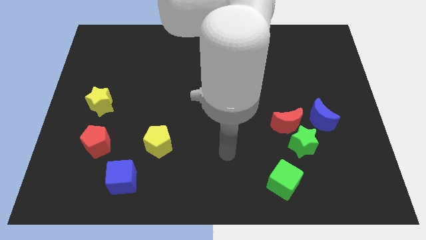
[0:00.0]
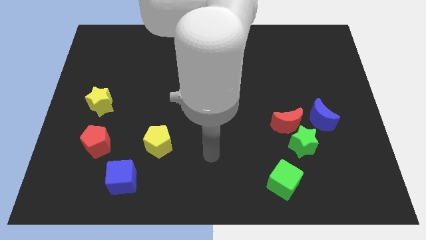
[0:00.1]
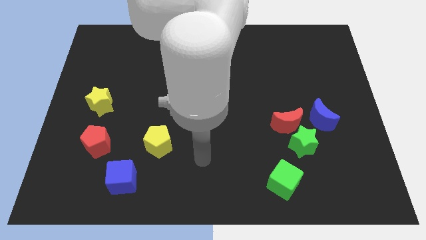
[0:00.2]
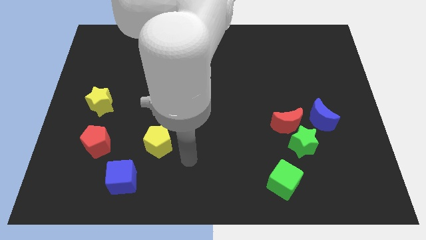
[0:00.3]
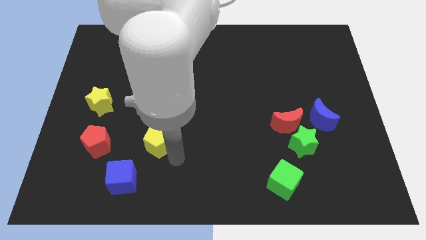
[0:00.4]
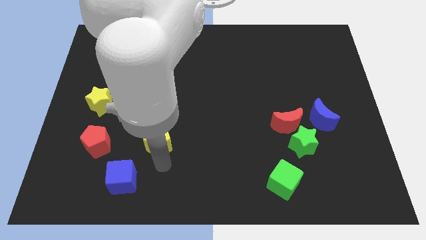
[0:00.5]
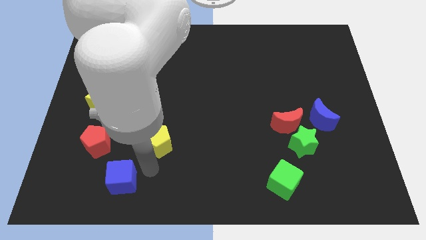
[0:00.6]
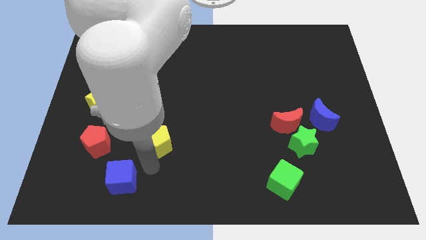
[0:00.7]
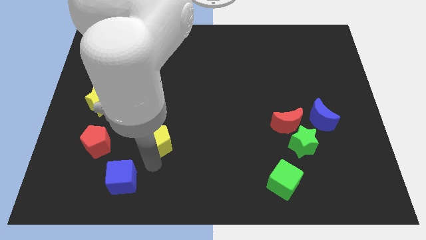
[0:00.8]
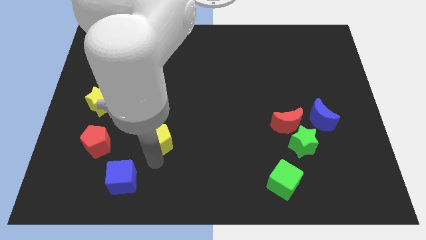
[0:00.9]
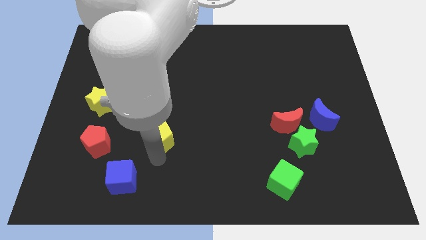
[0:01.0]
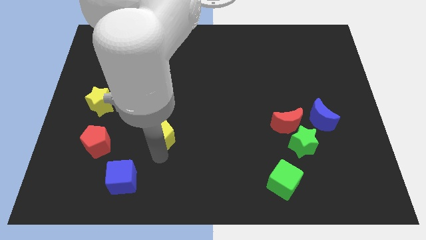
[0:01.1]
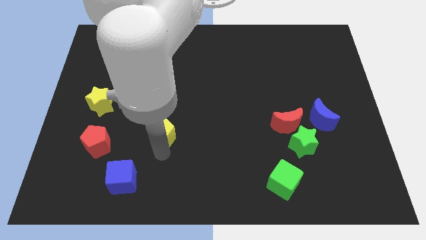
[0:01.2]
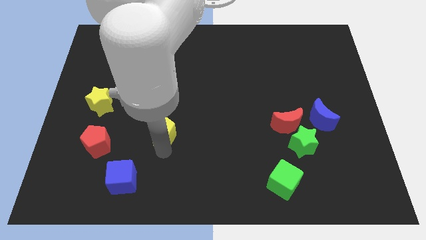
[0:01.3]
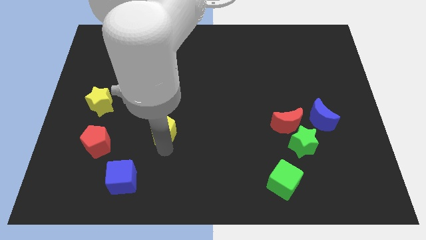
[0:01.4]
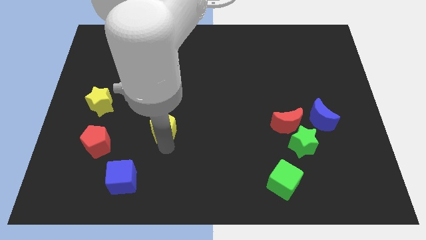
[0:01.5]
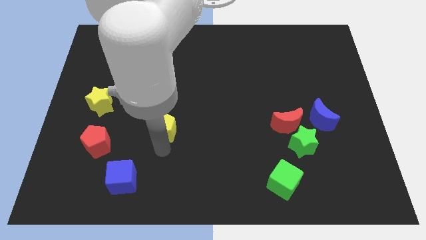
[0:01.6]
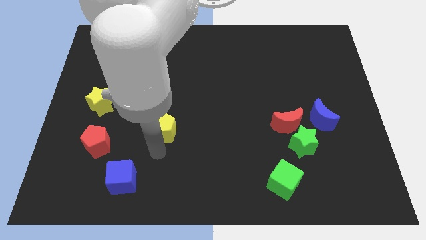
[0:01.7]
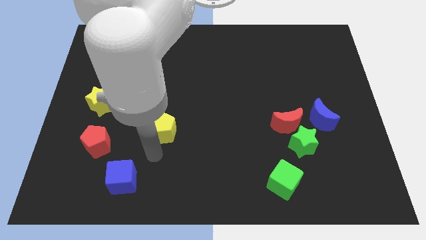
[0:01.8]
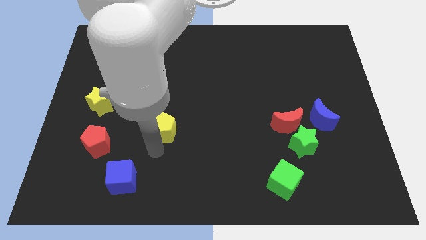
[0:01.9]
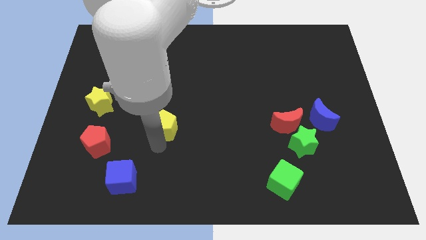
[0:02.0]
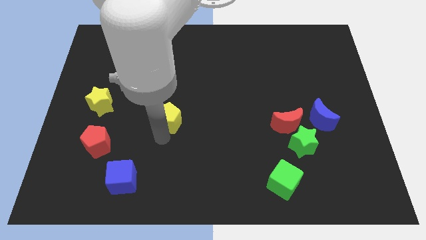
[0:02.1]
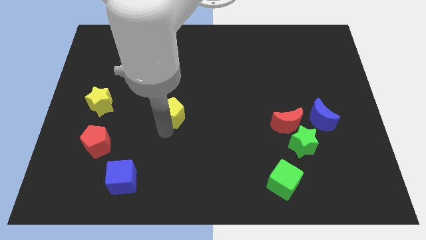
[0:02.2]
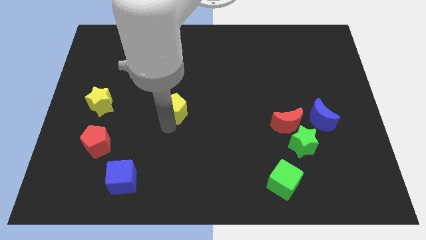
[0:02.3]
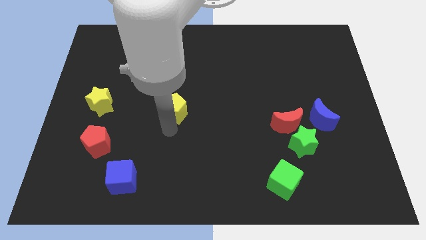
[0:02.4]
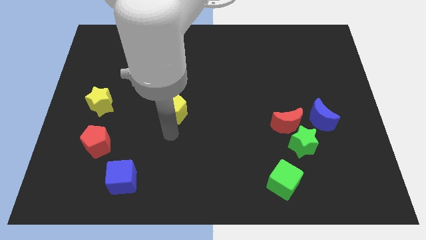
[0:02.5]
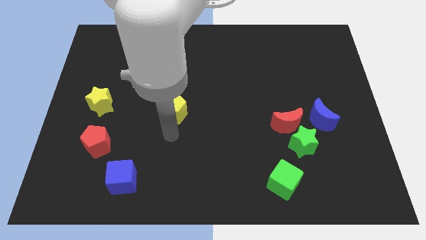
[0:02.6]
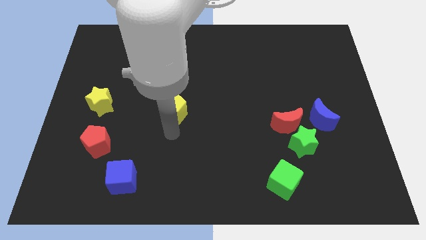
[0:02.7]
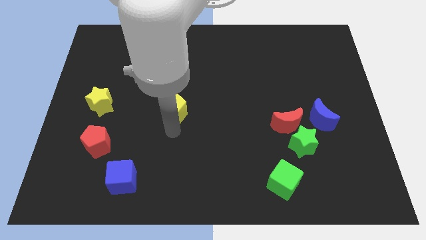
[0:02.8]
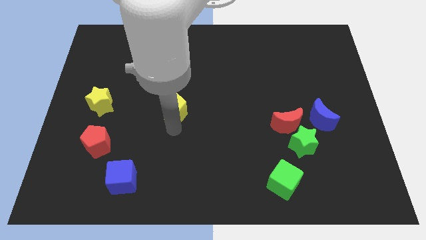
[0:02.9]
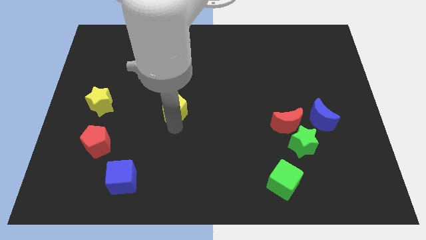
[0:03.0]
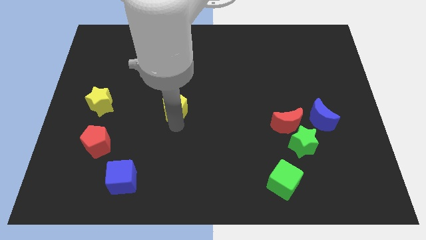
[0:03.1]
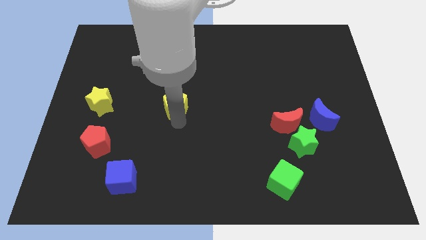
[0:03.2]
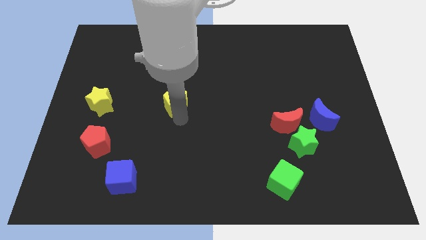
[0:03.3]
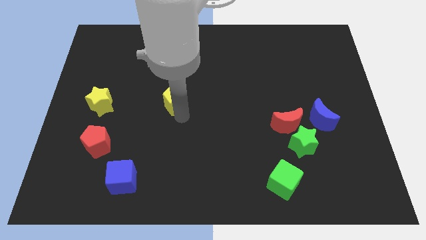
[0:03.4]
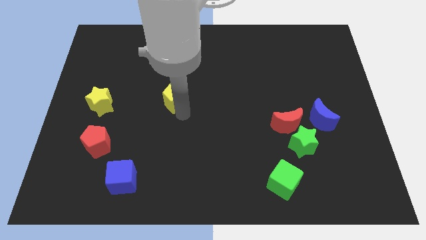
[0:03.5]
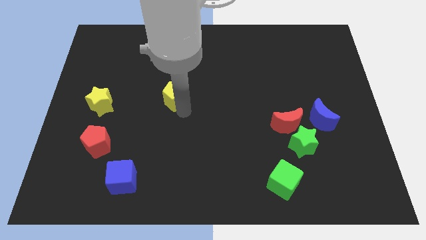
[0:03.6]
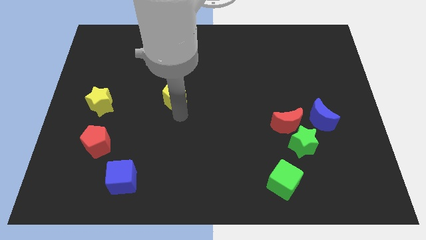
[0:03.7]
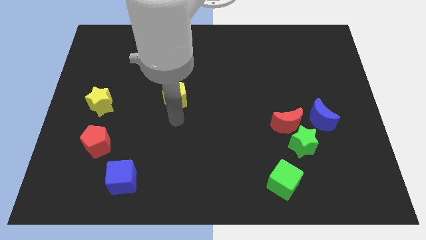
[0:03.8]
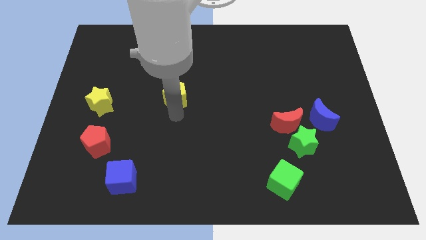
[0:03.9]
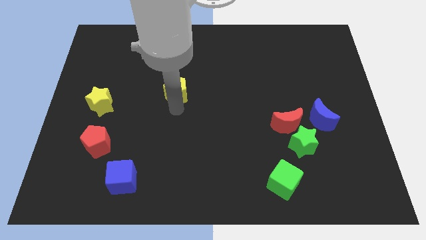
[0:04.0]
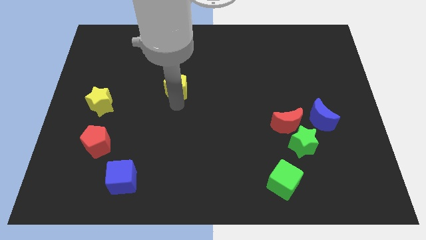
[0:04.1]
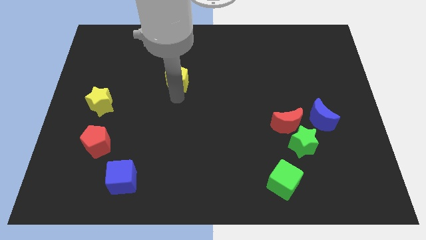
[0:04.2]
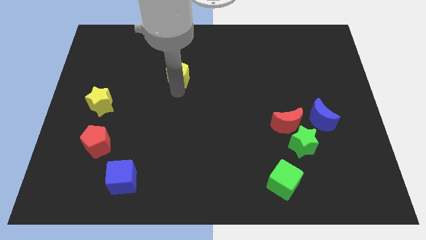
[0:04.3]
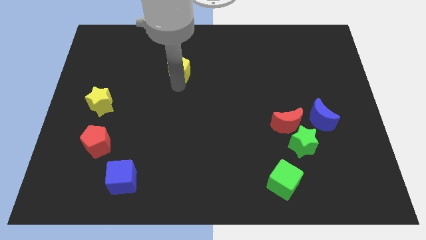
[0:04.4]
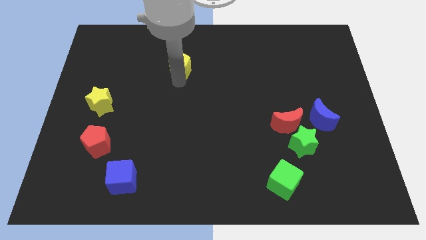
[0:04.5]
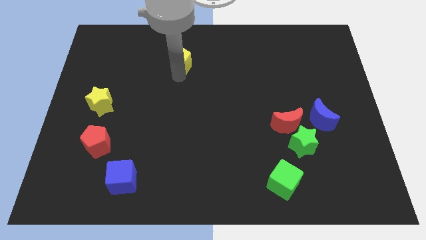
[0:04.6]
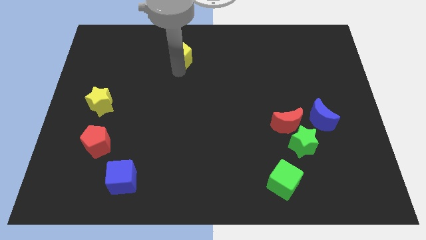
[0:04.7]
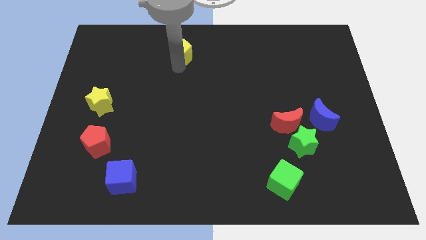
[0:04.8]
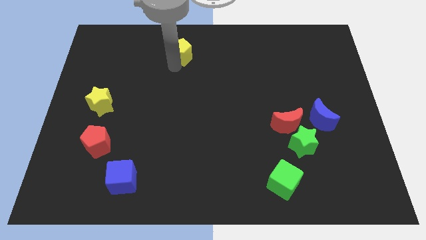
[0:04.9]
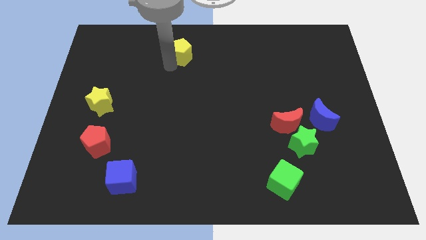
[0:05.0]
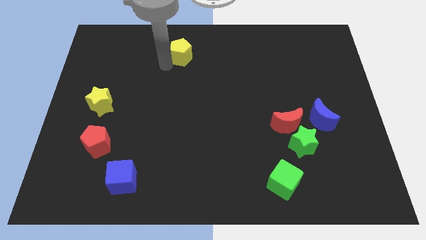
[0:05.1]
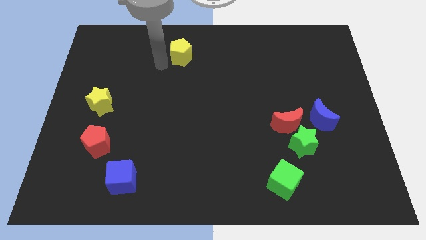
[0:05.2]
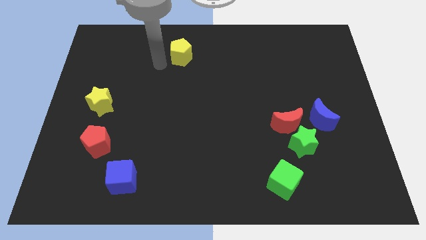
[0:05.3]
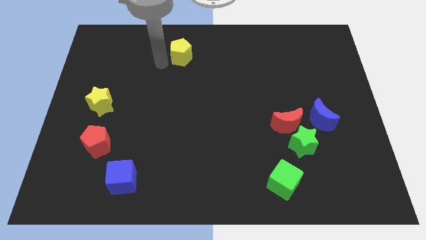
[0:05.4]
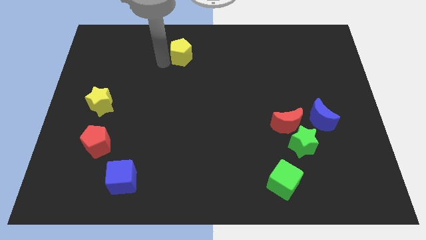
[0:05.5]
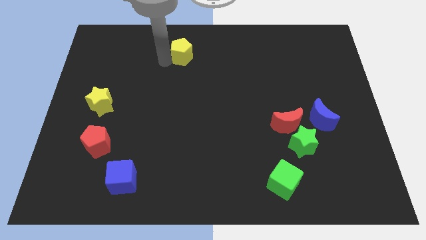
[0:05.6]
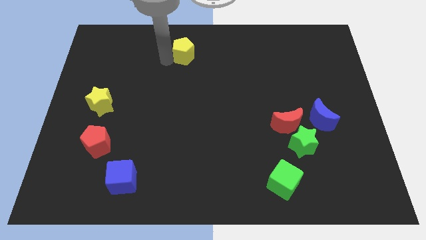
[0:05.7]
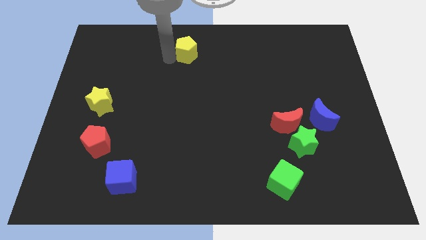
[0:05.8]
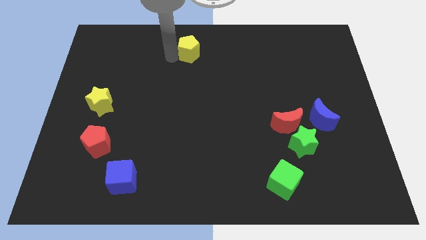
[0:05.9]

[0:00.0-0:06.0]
move the yellow pentagon to the top

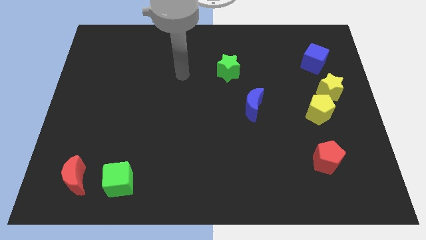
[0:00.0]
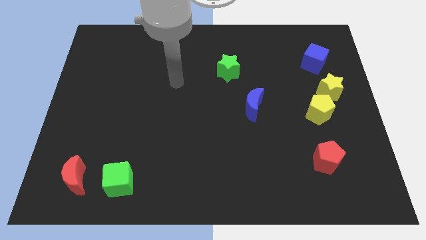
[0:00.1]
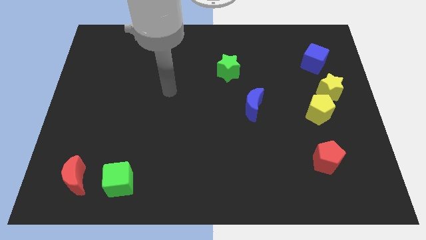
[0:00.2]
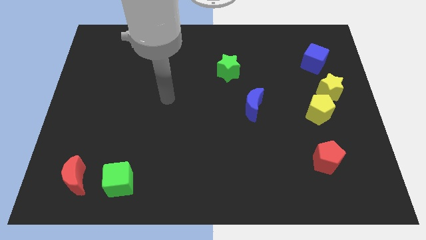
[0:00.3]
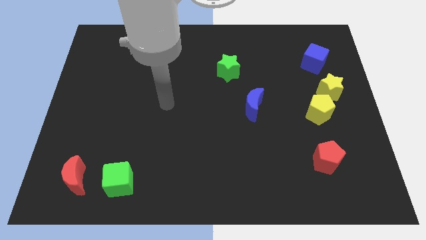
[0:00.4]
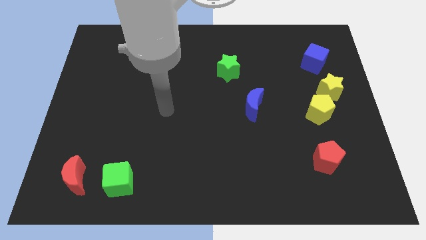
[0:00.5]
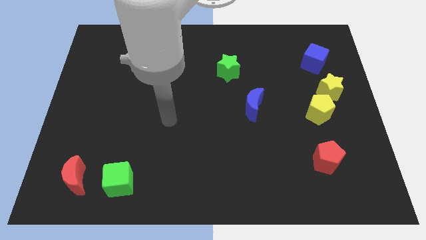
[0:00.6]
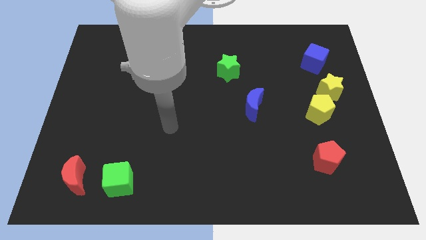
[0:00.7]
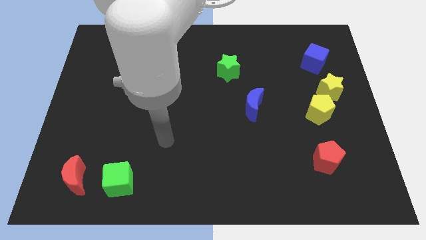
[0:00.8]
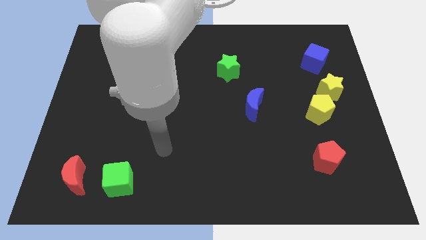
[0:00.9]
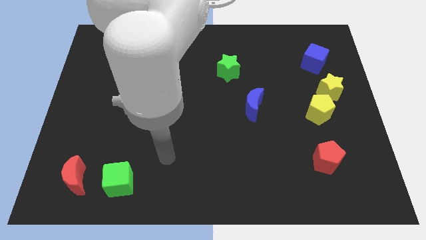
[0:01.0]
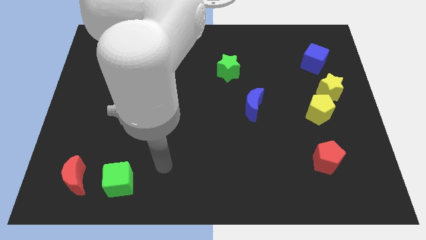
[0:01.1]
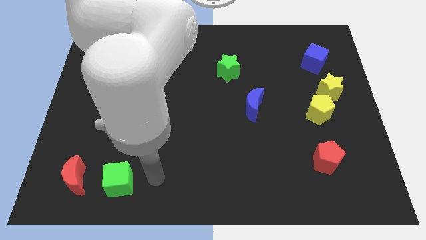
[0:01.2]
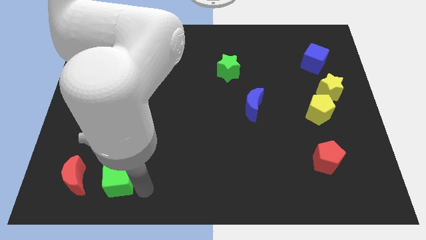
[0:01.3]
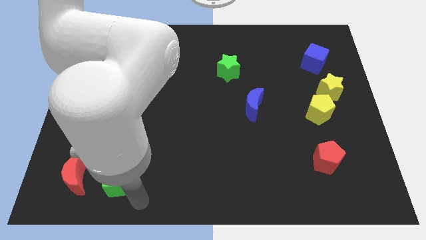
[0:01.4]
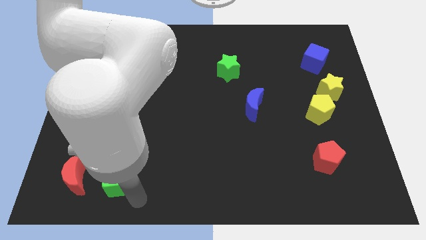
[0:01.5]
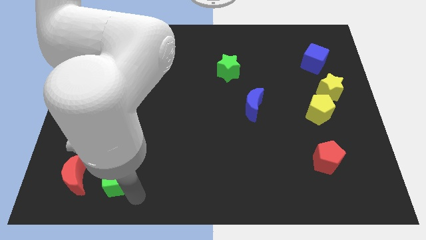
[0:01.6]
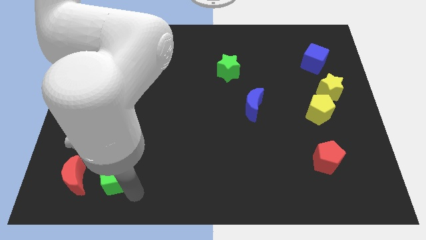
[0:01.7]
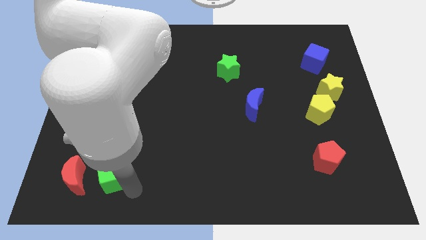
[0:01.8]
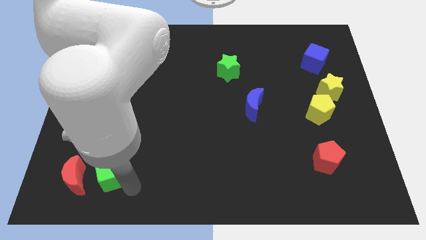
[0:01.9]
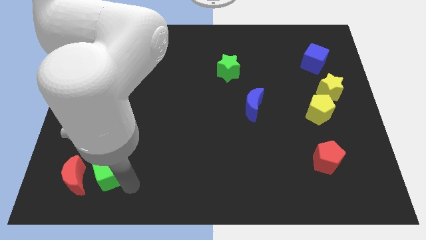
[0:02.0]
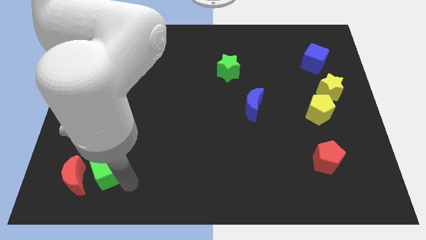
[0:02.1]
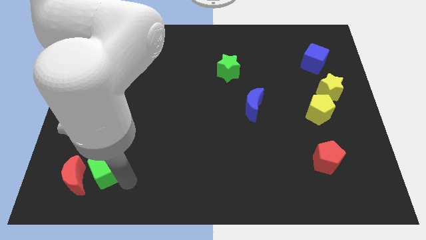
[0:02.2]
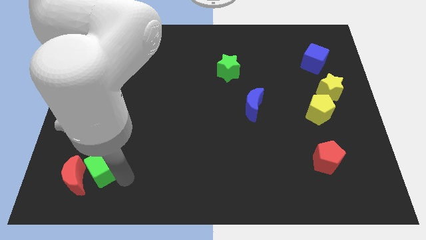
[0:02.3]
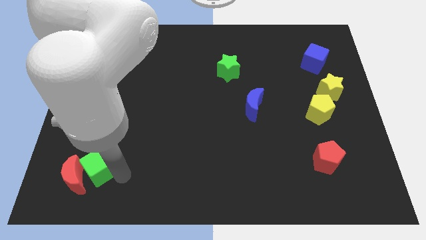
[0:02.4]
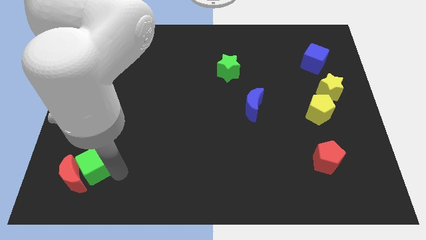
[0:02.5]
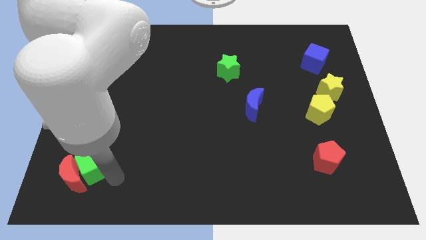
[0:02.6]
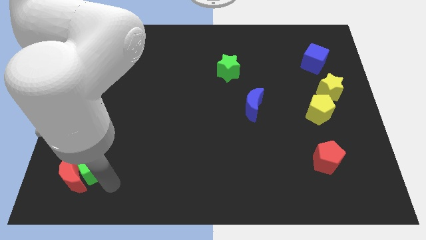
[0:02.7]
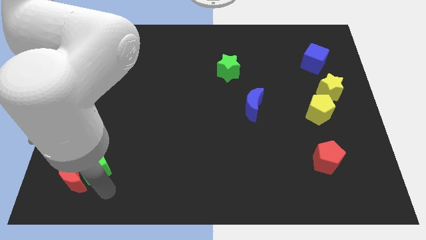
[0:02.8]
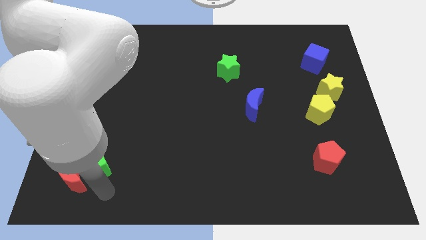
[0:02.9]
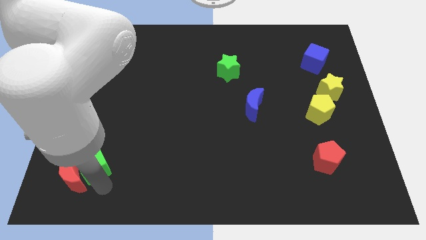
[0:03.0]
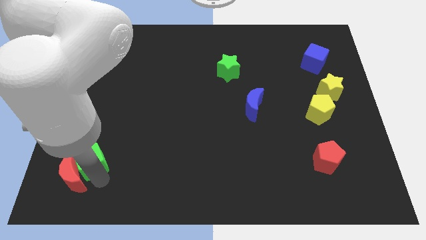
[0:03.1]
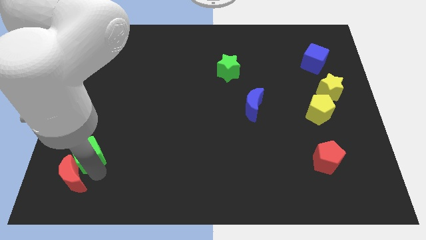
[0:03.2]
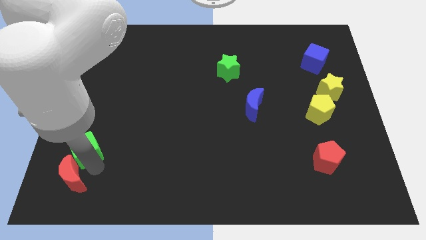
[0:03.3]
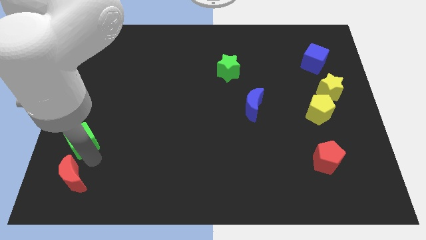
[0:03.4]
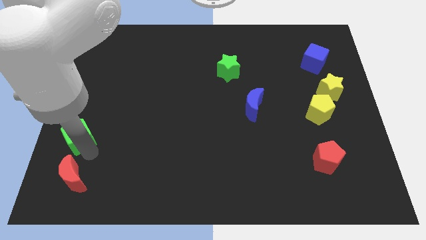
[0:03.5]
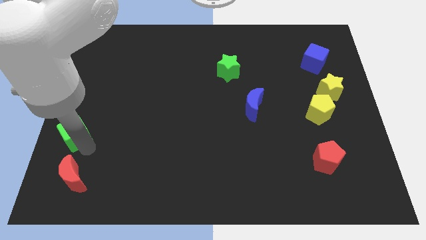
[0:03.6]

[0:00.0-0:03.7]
slide the green cube to the left side
